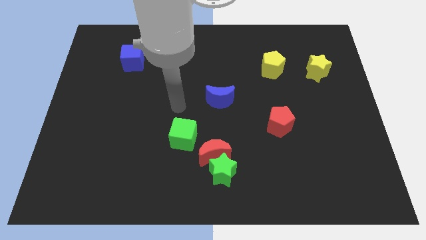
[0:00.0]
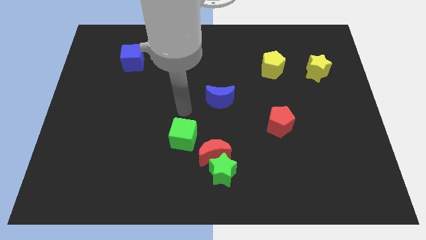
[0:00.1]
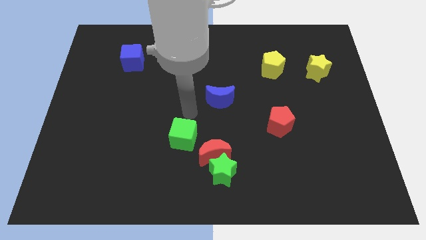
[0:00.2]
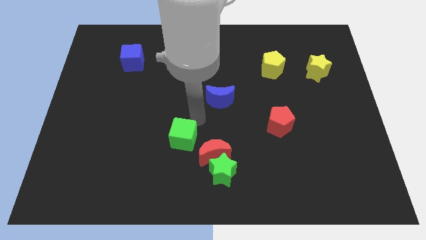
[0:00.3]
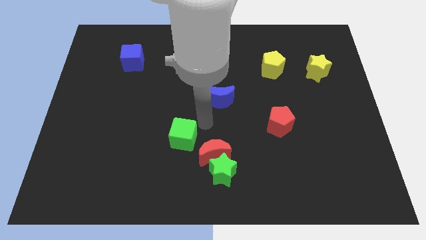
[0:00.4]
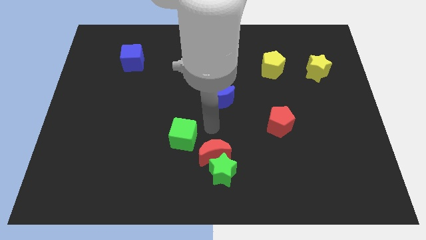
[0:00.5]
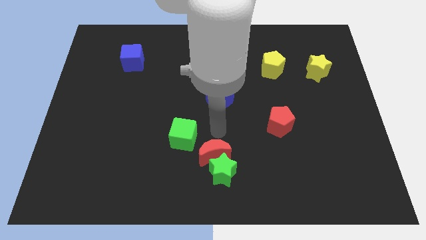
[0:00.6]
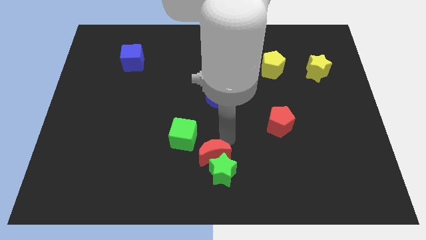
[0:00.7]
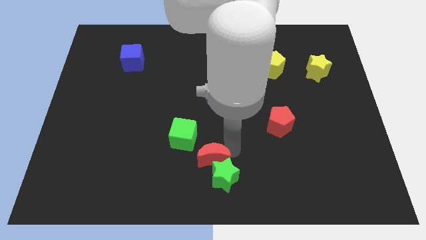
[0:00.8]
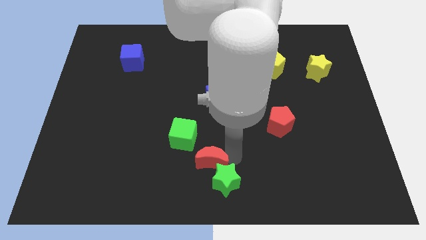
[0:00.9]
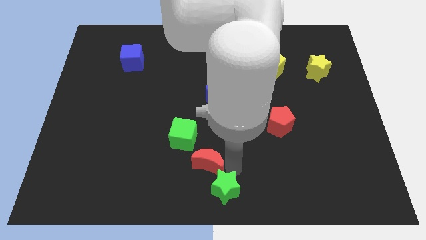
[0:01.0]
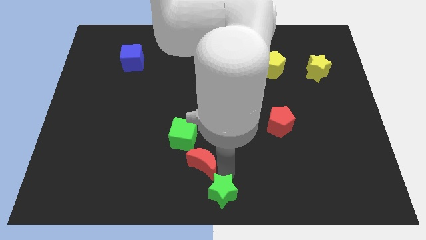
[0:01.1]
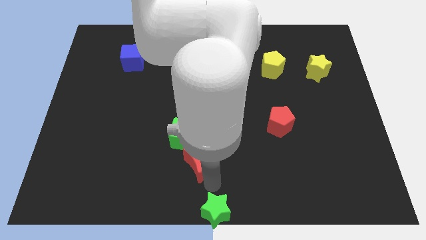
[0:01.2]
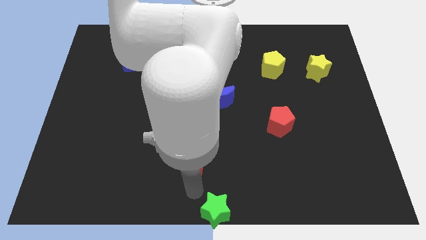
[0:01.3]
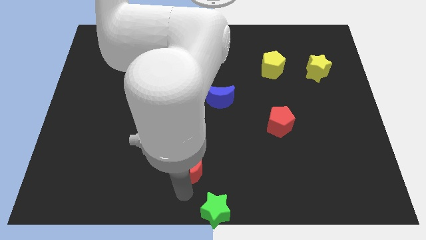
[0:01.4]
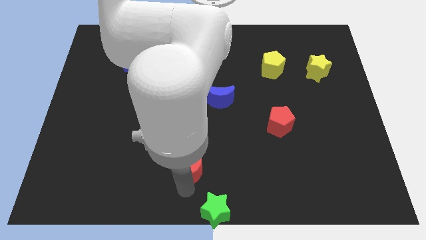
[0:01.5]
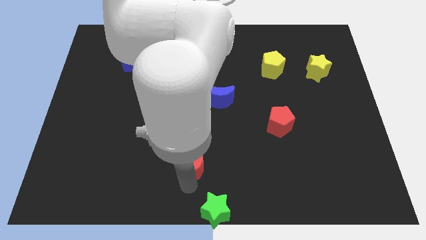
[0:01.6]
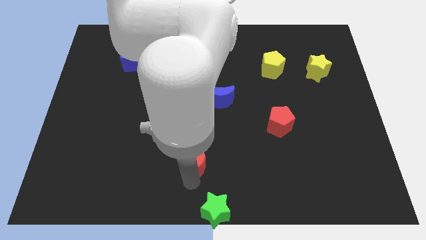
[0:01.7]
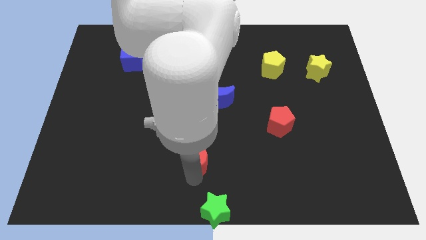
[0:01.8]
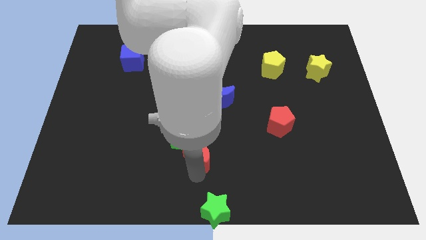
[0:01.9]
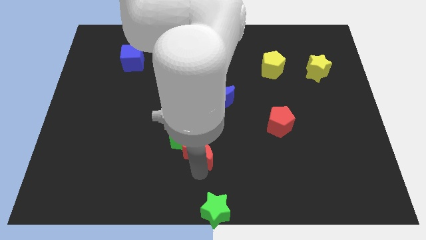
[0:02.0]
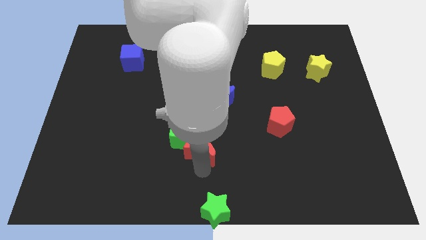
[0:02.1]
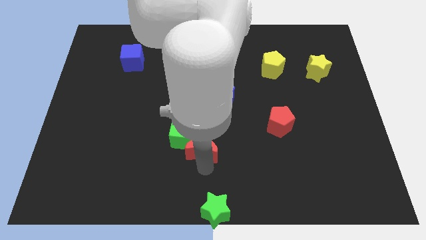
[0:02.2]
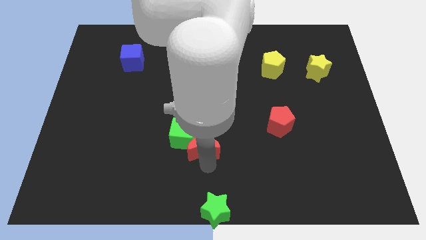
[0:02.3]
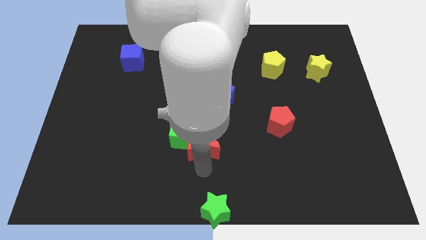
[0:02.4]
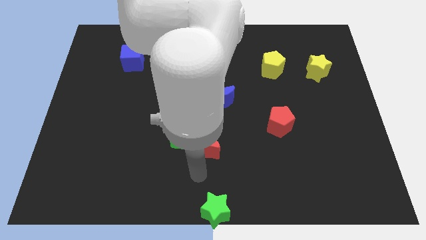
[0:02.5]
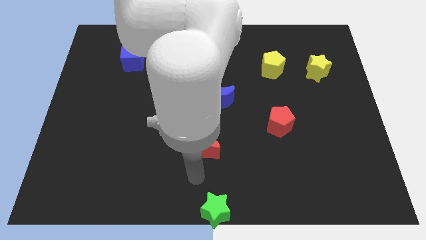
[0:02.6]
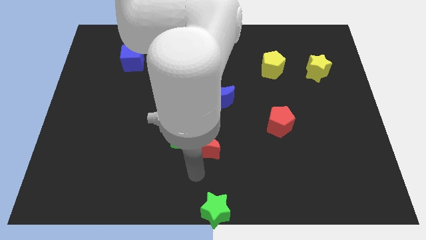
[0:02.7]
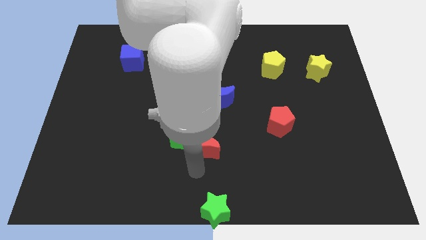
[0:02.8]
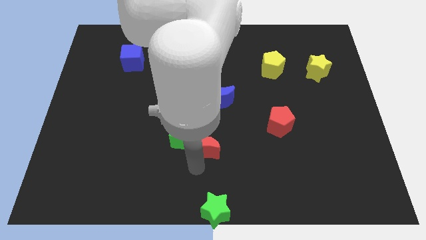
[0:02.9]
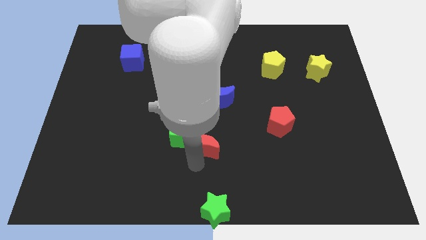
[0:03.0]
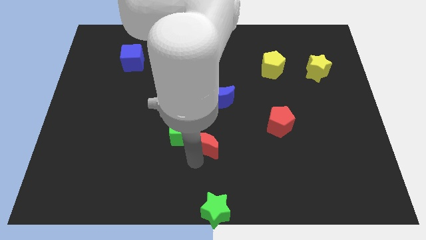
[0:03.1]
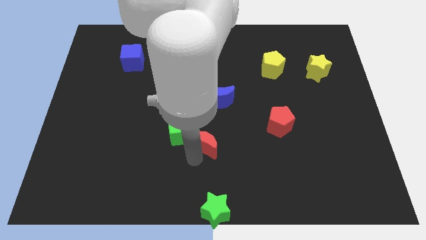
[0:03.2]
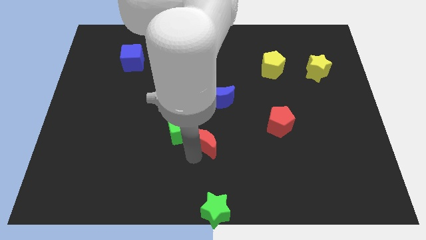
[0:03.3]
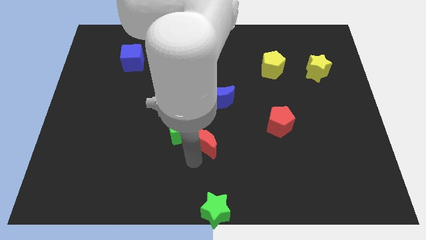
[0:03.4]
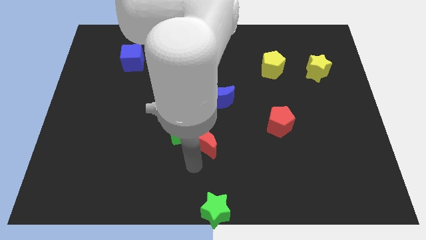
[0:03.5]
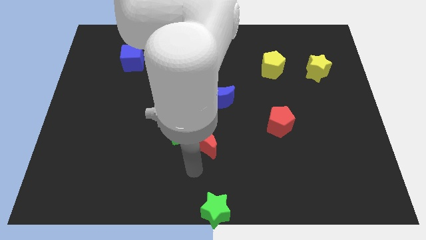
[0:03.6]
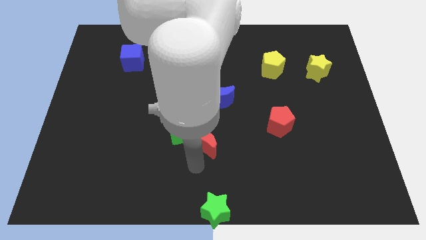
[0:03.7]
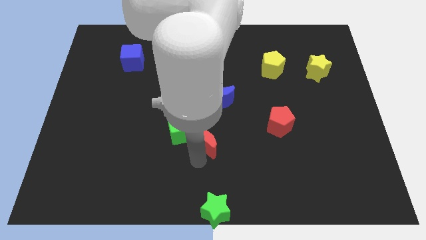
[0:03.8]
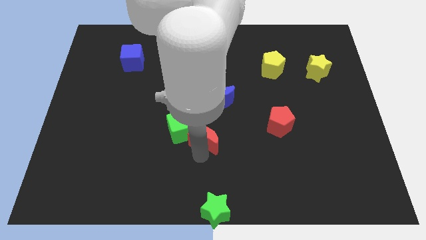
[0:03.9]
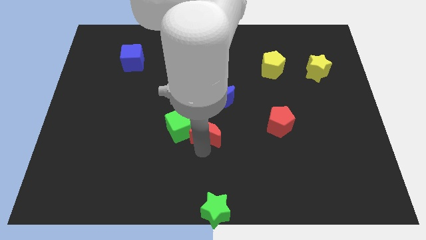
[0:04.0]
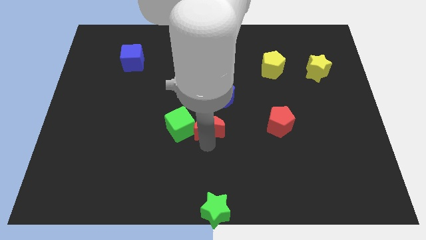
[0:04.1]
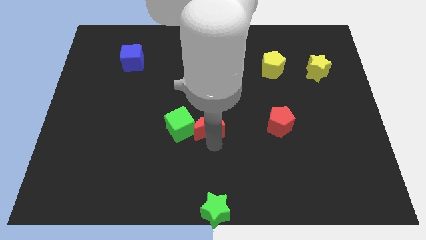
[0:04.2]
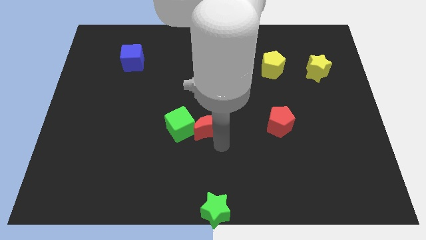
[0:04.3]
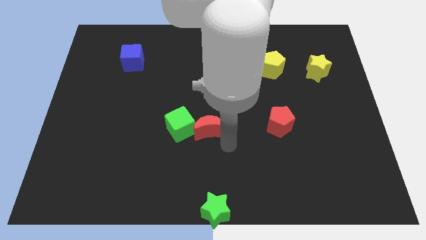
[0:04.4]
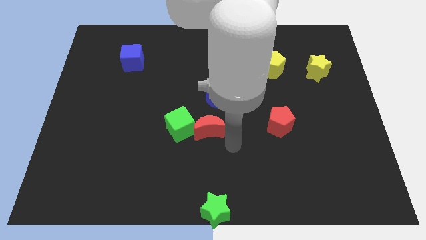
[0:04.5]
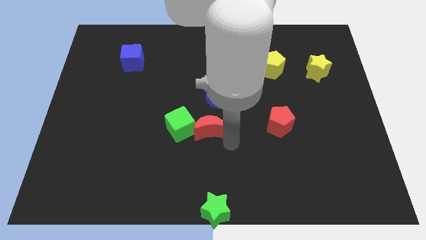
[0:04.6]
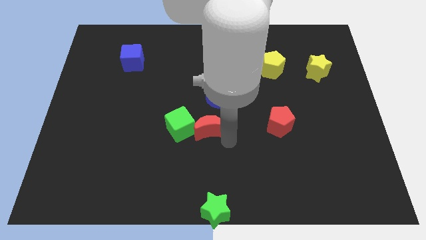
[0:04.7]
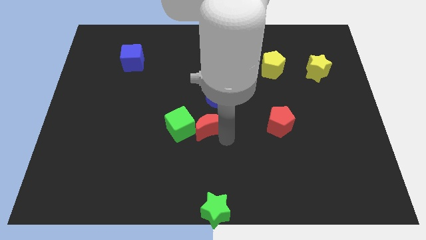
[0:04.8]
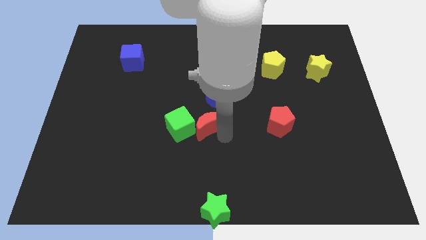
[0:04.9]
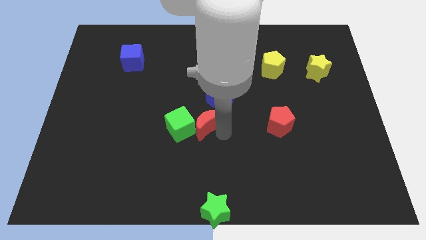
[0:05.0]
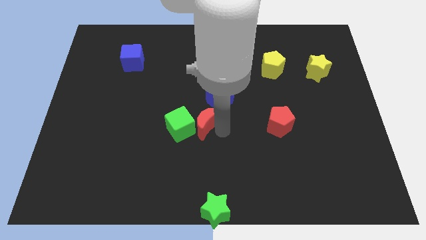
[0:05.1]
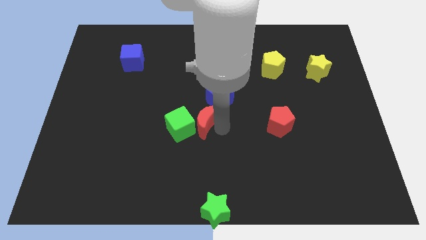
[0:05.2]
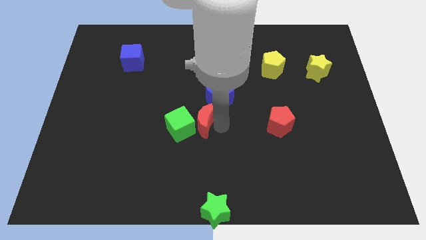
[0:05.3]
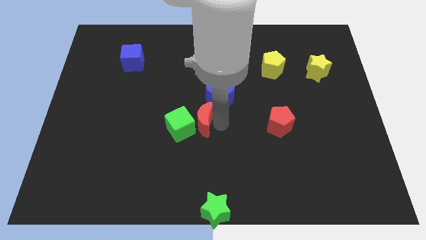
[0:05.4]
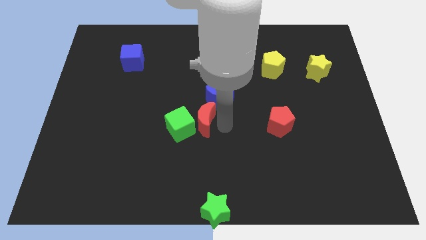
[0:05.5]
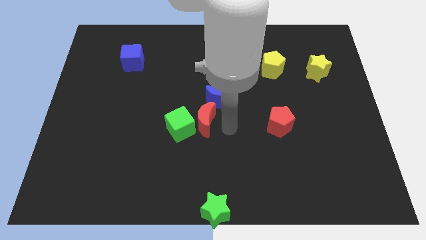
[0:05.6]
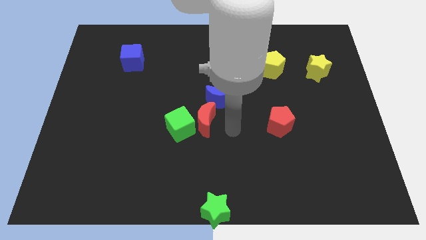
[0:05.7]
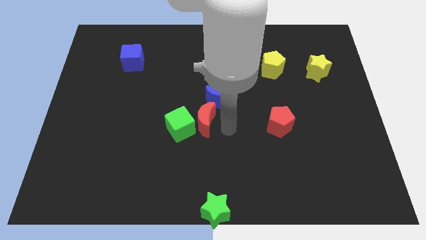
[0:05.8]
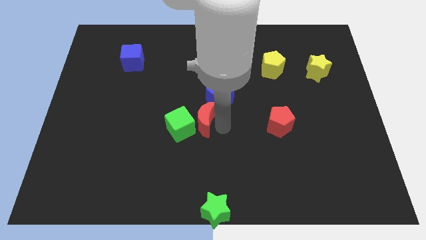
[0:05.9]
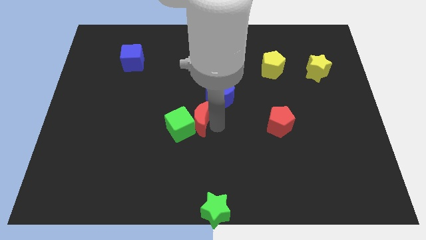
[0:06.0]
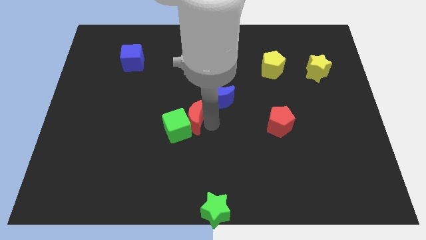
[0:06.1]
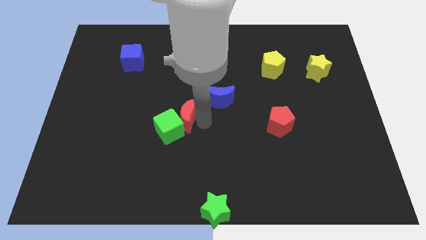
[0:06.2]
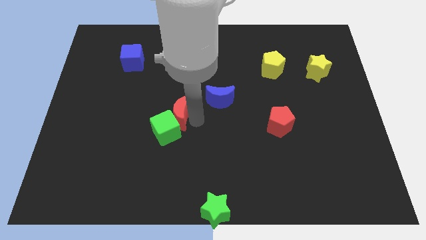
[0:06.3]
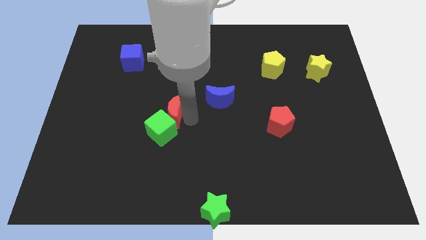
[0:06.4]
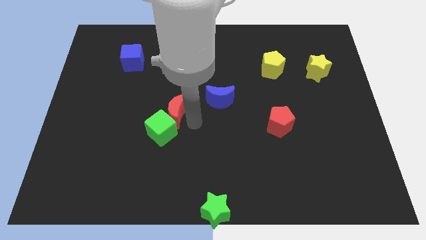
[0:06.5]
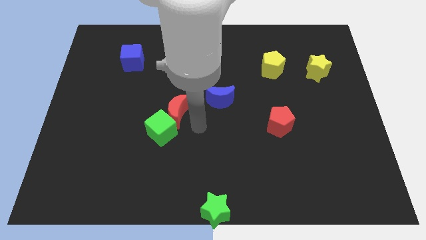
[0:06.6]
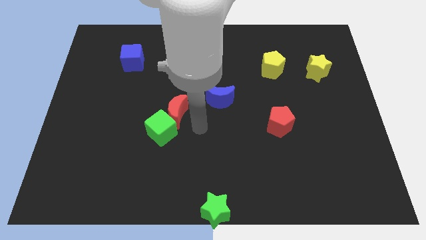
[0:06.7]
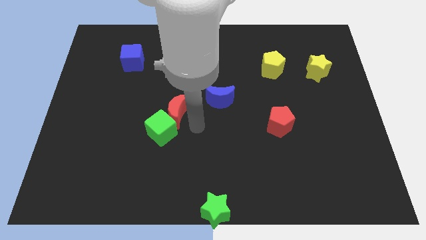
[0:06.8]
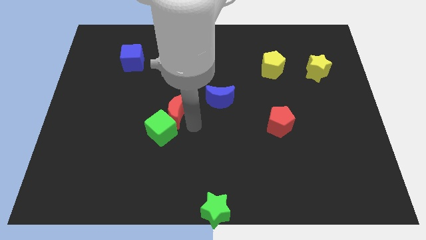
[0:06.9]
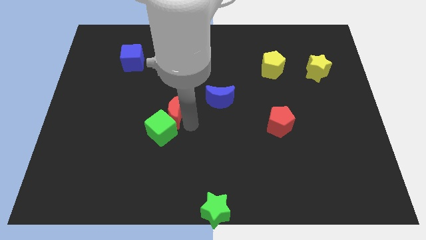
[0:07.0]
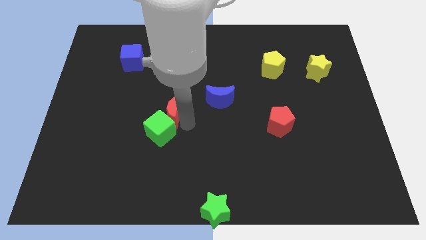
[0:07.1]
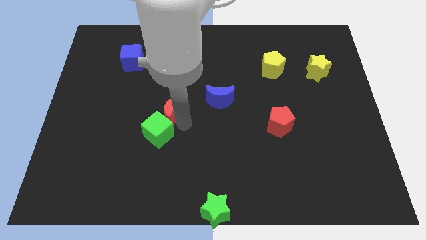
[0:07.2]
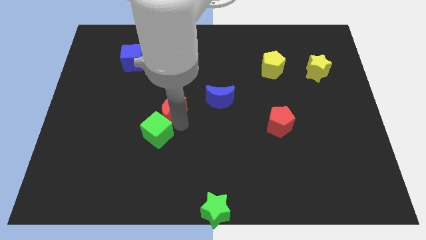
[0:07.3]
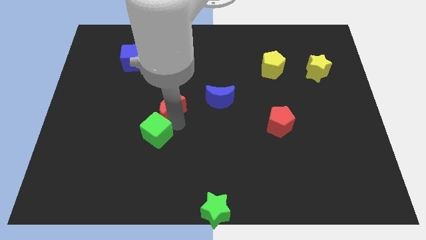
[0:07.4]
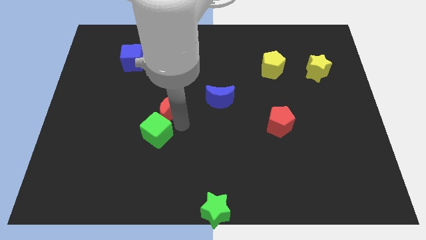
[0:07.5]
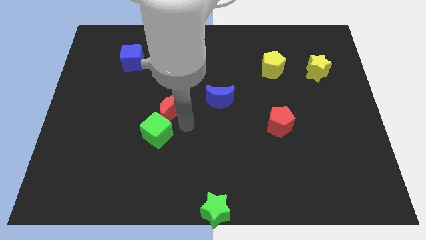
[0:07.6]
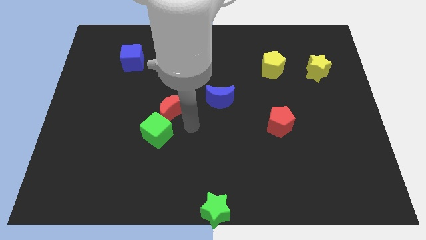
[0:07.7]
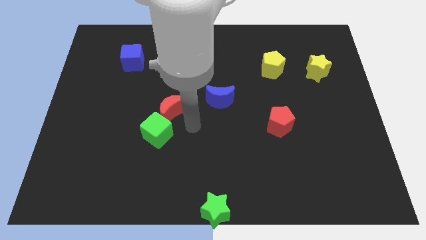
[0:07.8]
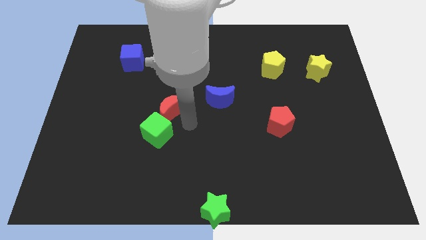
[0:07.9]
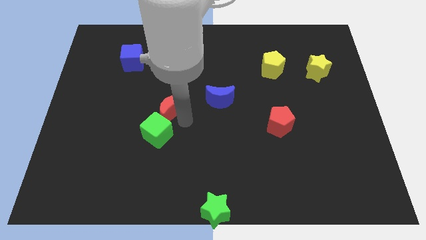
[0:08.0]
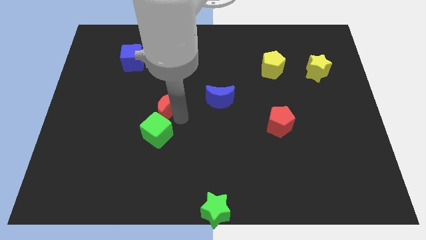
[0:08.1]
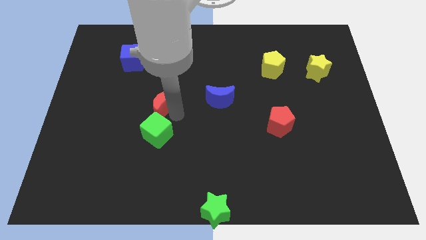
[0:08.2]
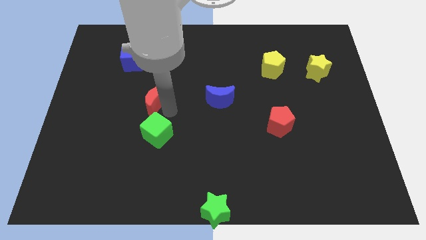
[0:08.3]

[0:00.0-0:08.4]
push the red moon up and left

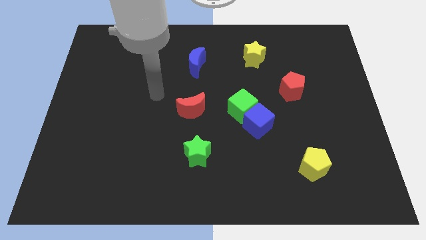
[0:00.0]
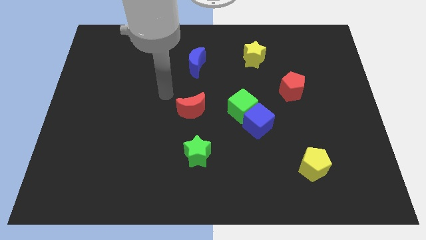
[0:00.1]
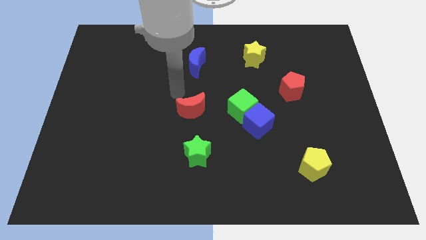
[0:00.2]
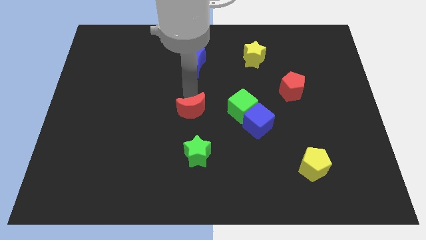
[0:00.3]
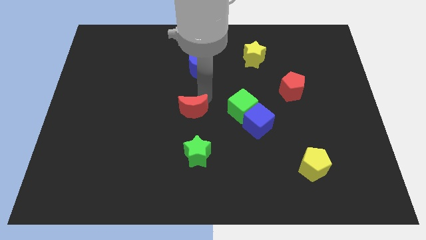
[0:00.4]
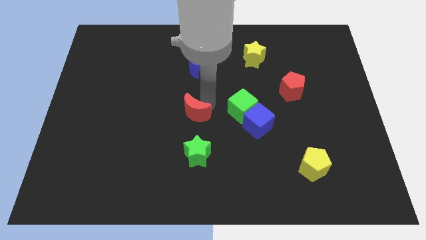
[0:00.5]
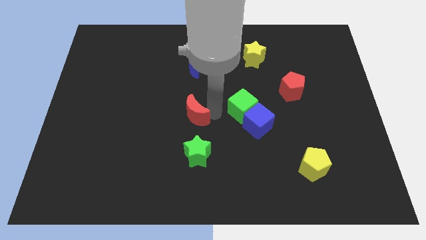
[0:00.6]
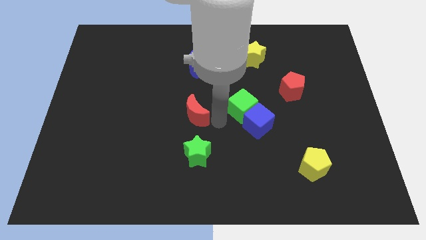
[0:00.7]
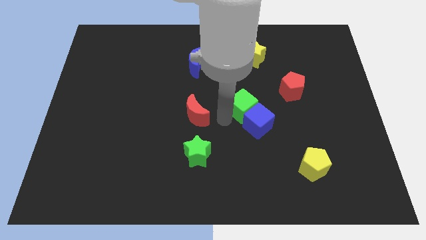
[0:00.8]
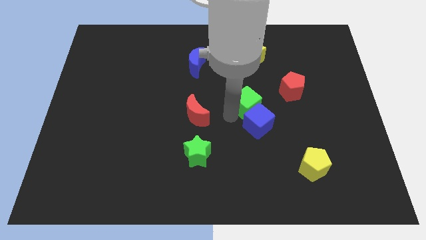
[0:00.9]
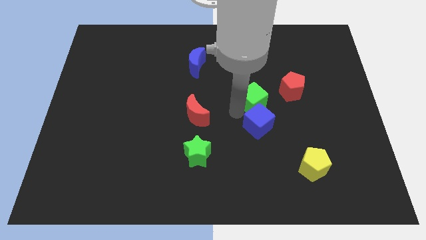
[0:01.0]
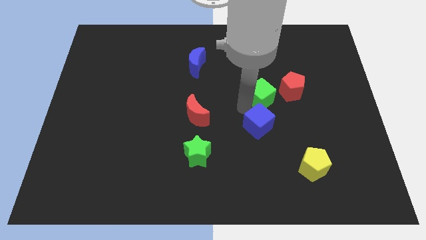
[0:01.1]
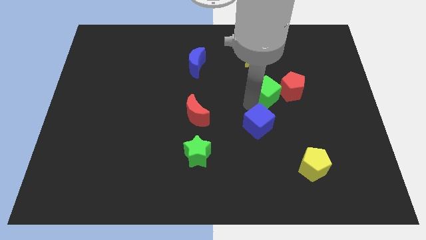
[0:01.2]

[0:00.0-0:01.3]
move the green cube diagonally upwards and right a little
